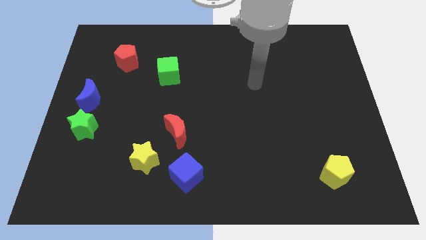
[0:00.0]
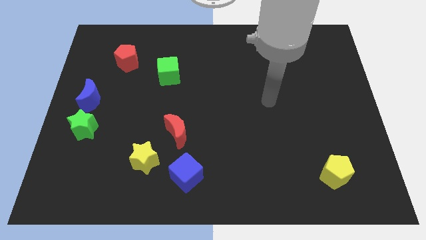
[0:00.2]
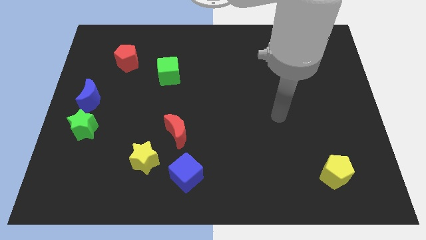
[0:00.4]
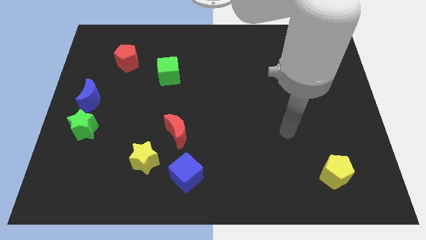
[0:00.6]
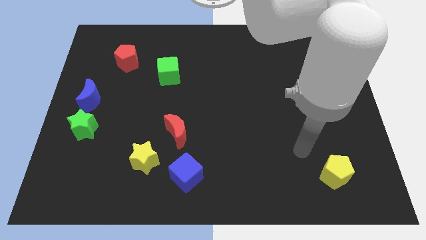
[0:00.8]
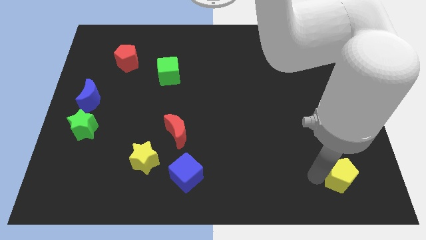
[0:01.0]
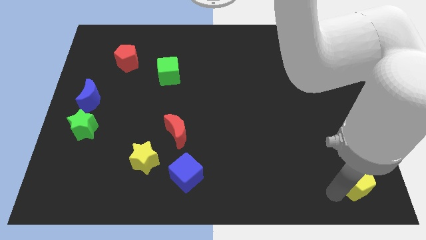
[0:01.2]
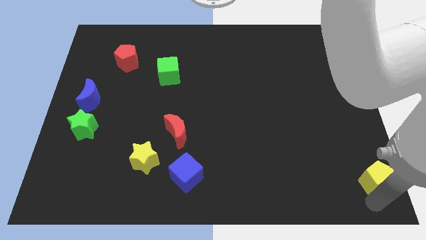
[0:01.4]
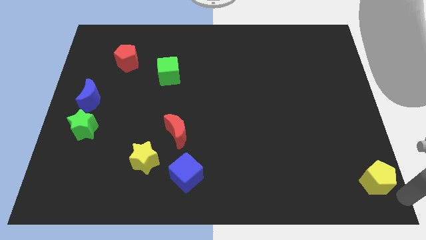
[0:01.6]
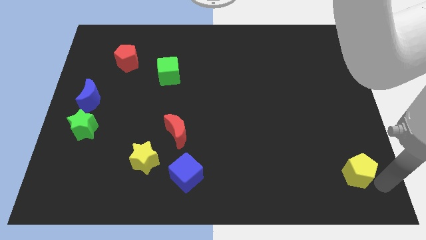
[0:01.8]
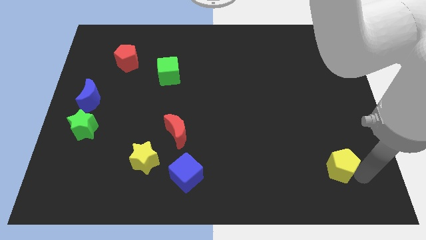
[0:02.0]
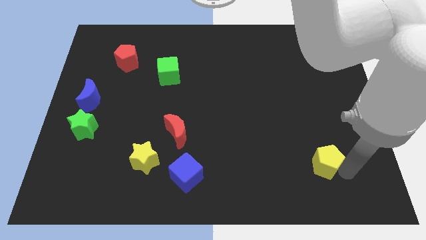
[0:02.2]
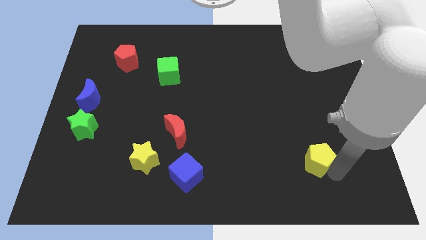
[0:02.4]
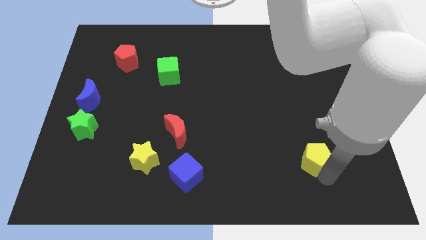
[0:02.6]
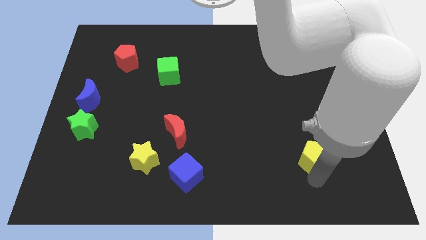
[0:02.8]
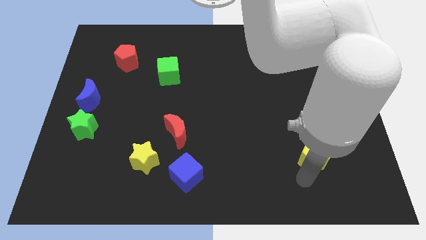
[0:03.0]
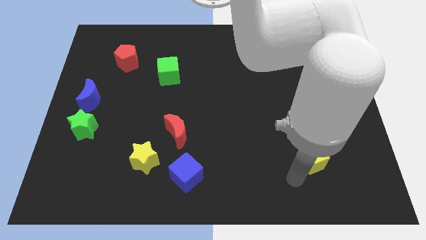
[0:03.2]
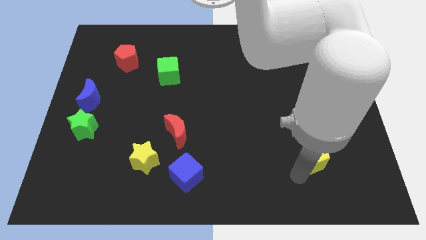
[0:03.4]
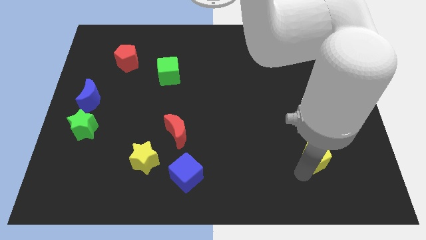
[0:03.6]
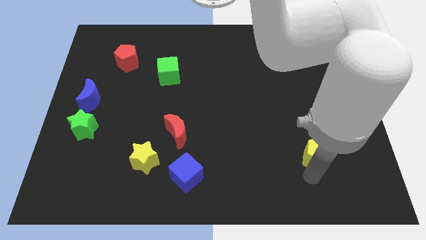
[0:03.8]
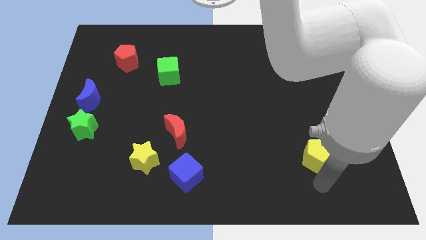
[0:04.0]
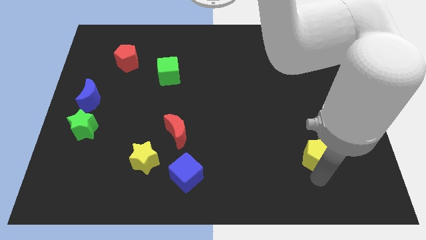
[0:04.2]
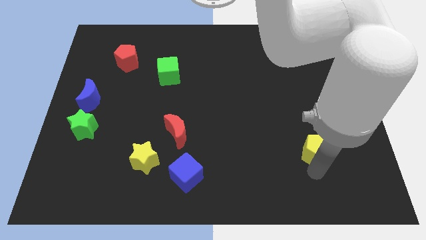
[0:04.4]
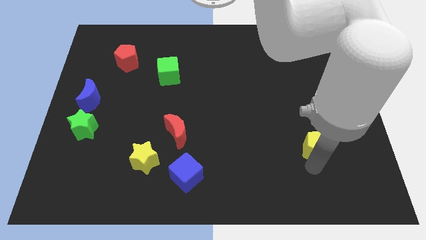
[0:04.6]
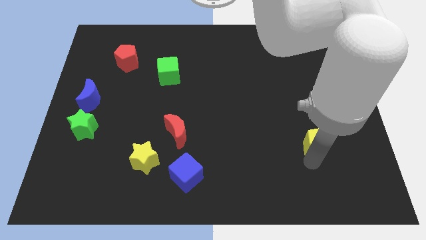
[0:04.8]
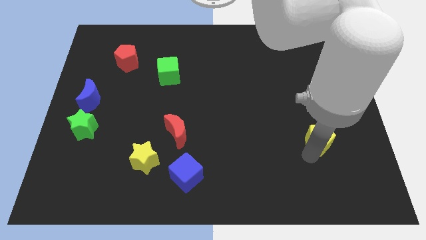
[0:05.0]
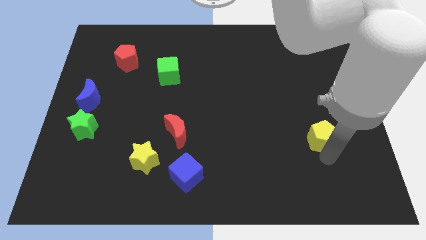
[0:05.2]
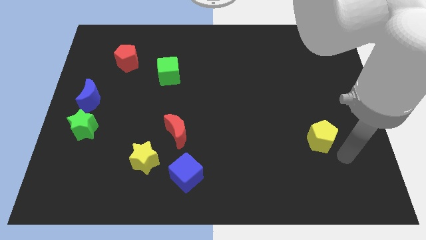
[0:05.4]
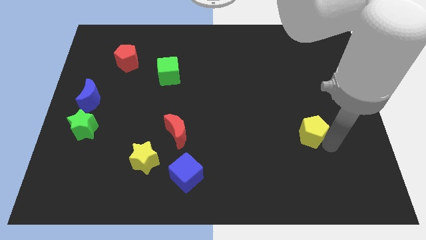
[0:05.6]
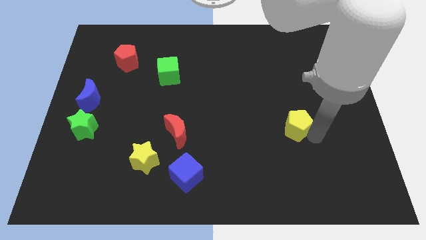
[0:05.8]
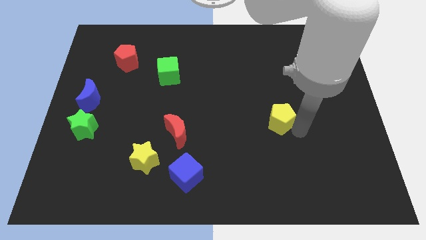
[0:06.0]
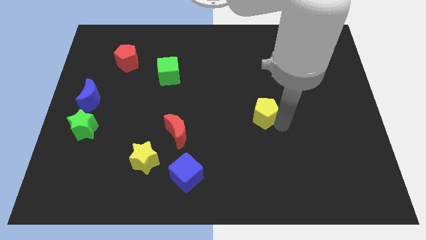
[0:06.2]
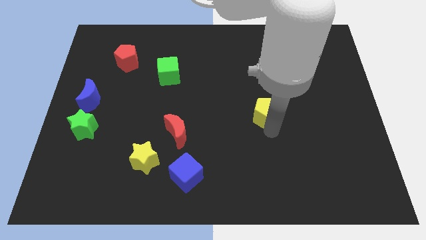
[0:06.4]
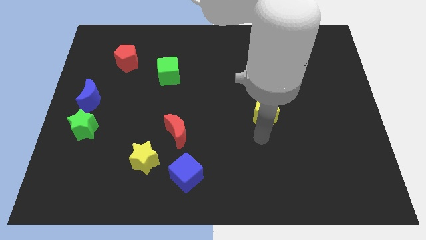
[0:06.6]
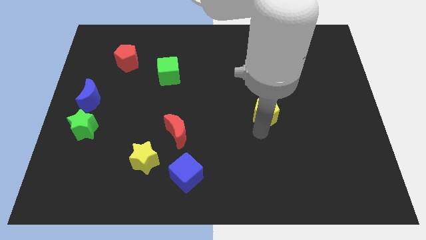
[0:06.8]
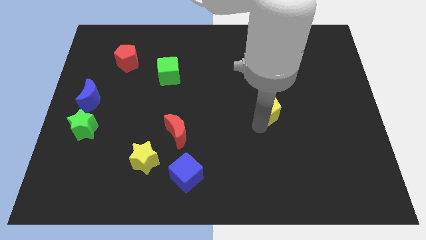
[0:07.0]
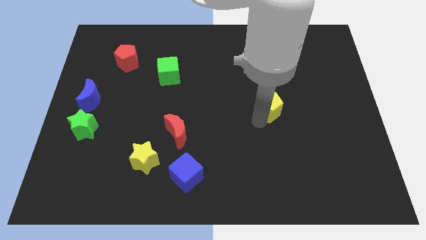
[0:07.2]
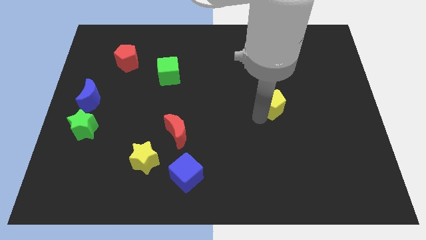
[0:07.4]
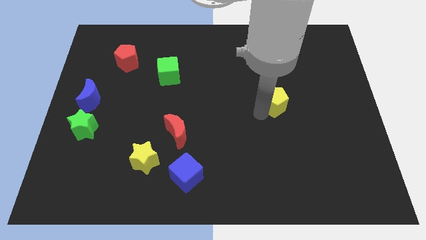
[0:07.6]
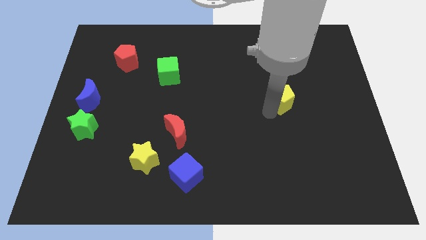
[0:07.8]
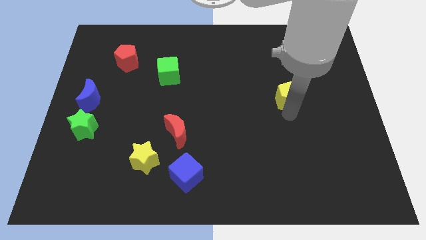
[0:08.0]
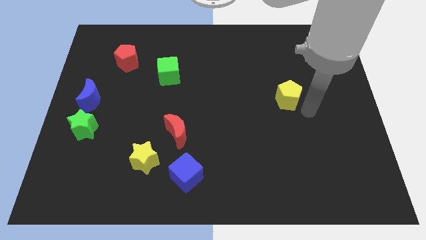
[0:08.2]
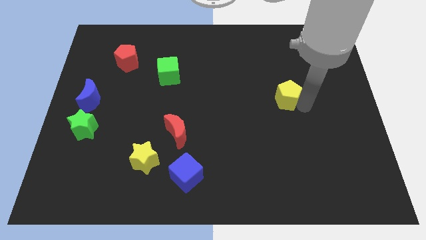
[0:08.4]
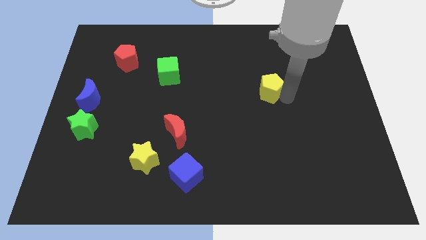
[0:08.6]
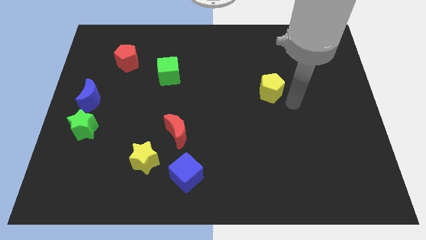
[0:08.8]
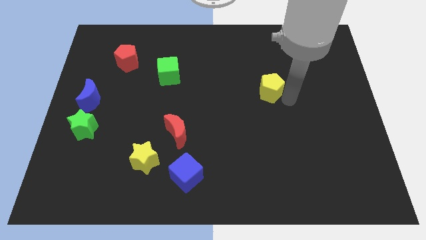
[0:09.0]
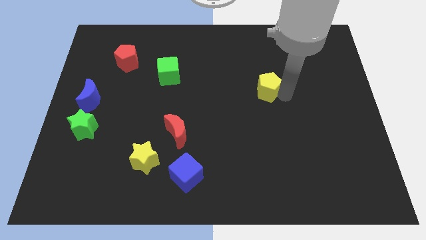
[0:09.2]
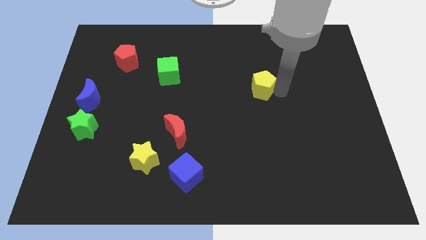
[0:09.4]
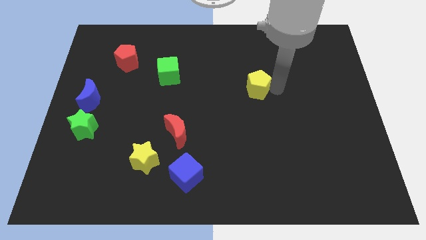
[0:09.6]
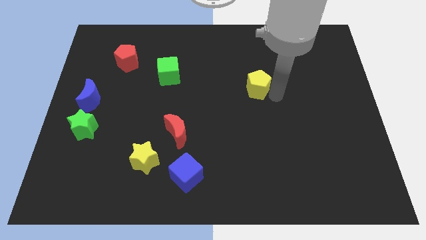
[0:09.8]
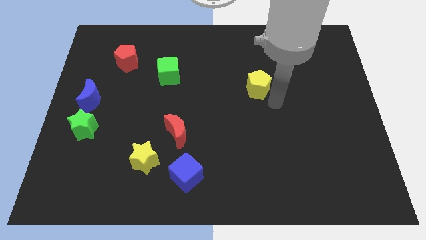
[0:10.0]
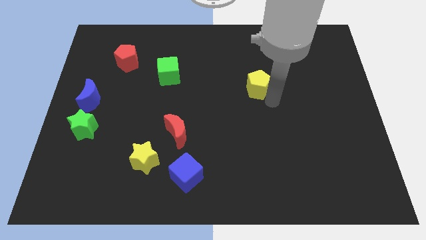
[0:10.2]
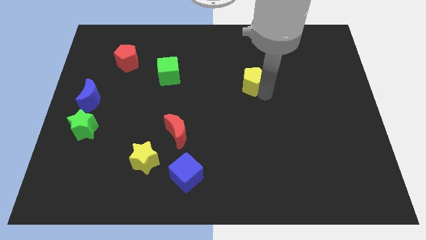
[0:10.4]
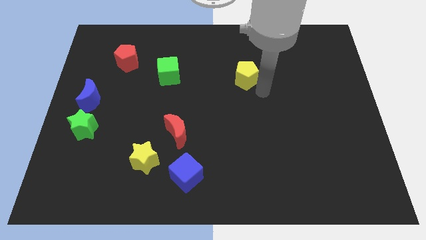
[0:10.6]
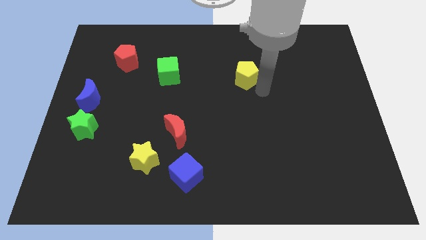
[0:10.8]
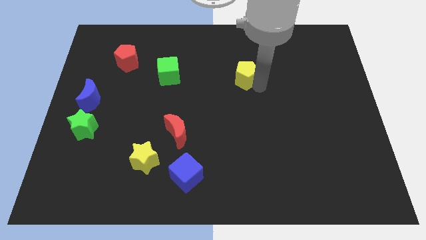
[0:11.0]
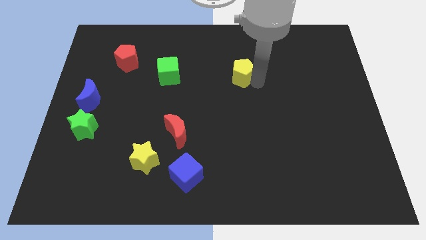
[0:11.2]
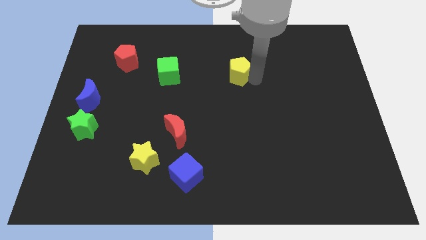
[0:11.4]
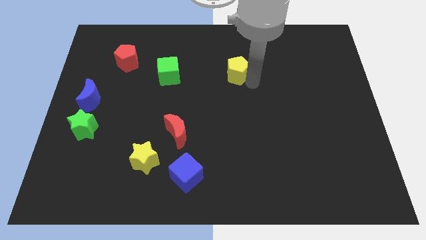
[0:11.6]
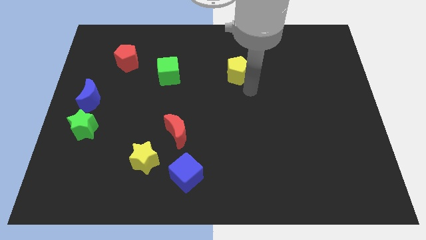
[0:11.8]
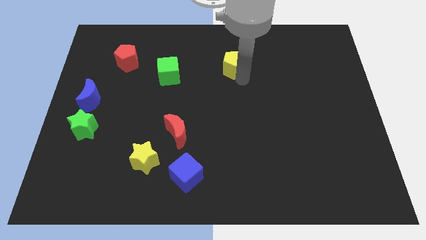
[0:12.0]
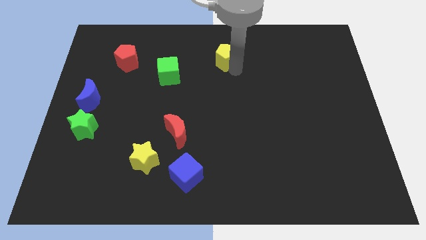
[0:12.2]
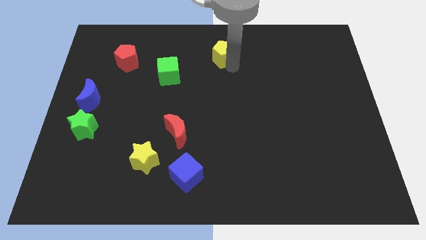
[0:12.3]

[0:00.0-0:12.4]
move the yellow pentagon to the top

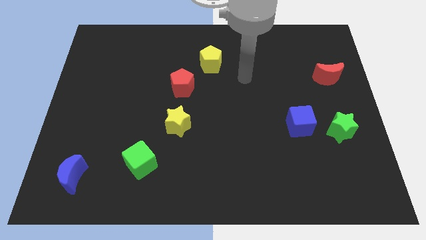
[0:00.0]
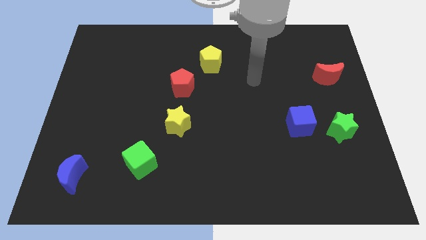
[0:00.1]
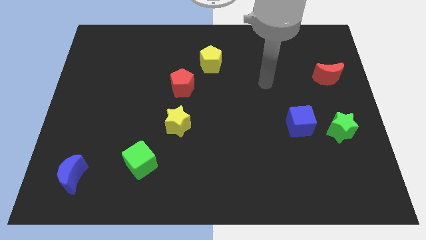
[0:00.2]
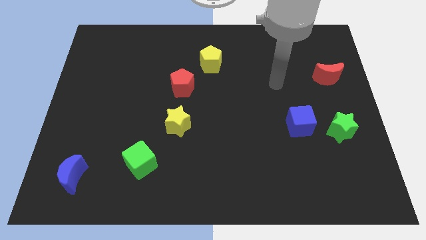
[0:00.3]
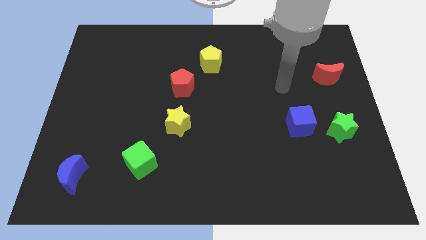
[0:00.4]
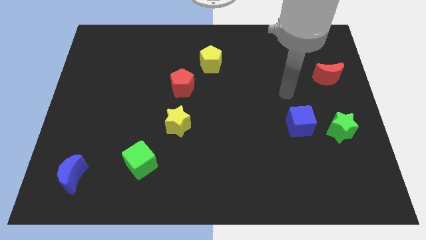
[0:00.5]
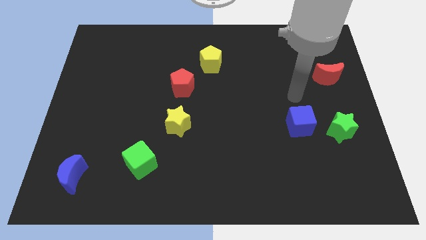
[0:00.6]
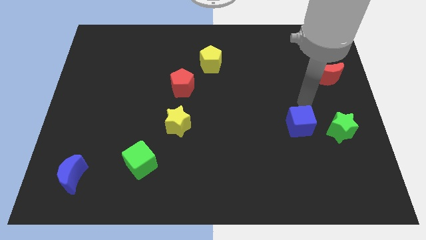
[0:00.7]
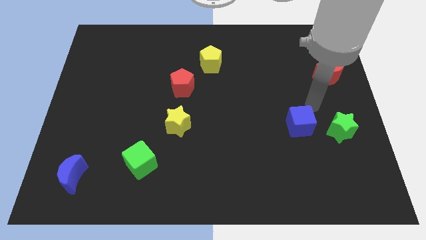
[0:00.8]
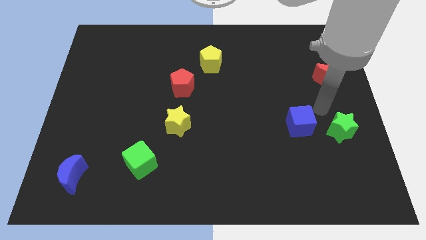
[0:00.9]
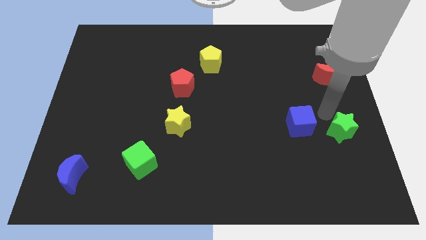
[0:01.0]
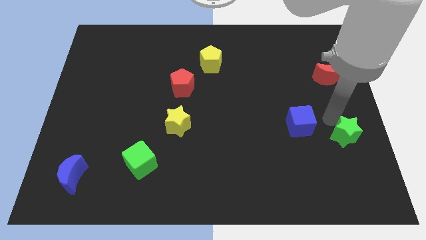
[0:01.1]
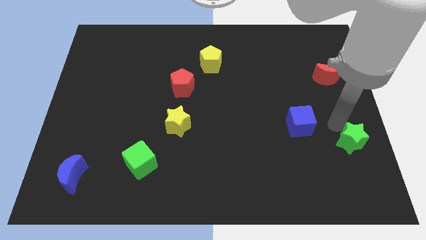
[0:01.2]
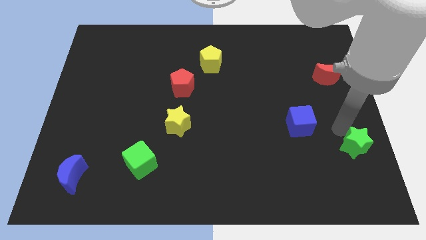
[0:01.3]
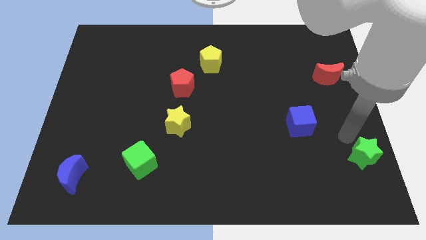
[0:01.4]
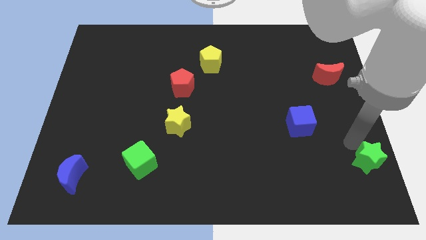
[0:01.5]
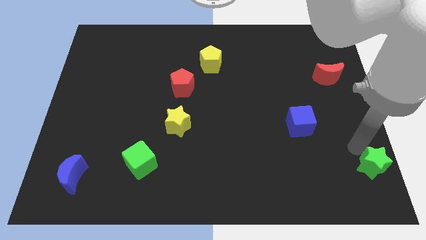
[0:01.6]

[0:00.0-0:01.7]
push the green star to the lower right corner
